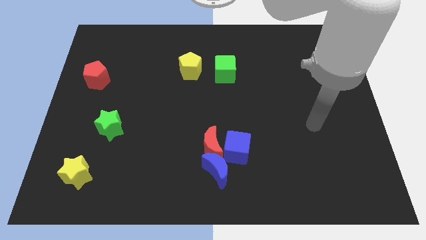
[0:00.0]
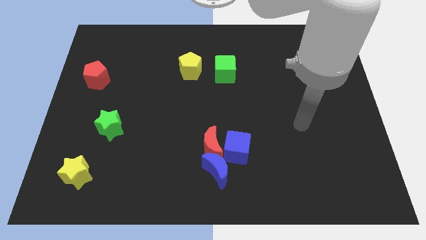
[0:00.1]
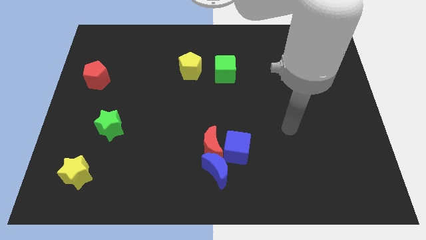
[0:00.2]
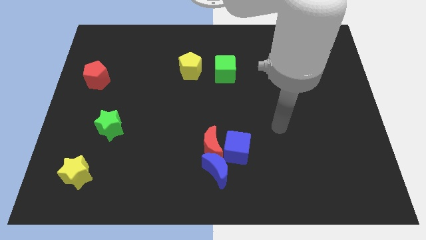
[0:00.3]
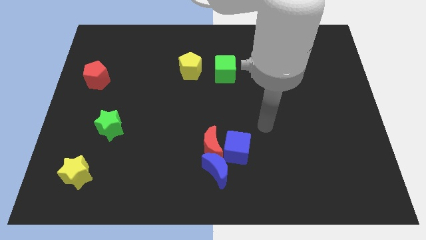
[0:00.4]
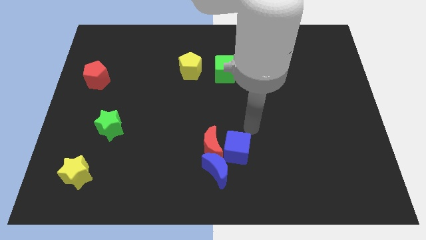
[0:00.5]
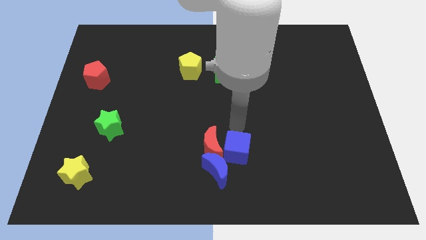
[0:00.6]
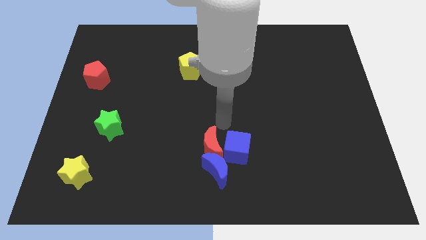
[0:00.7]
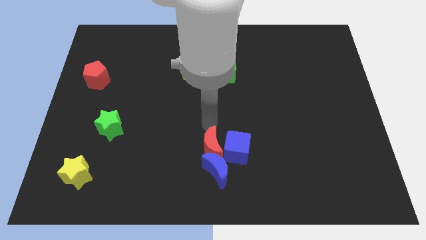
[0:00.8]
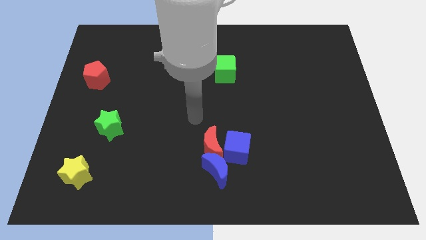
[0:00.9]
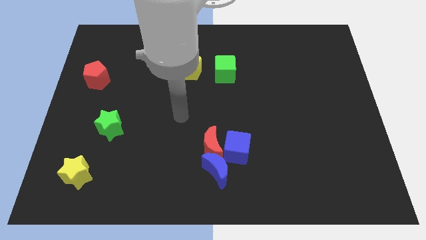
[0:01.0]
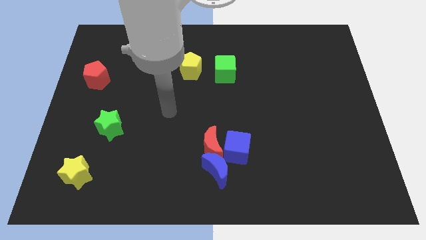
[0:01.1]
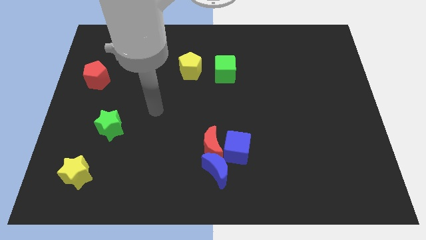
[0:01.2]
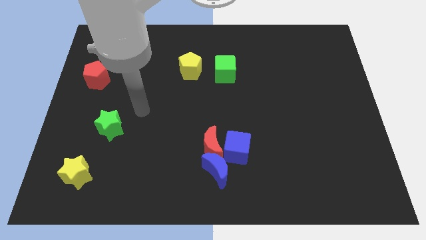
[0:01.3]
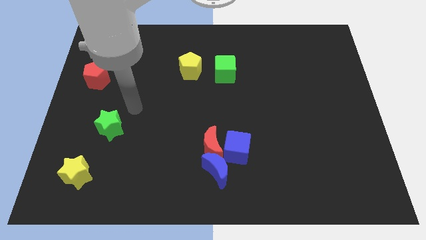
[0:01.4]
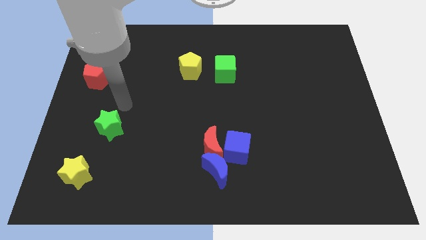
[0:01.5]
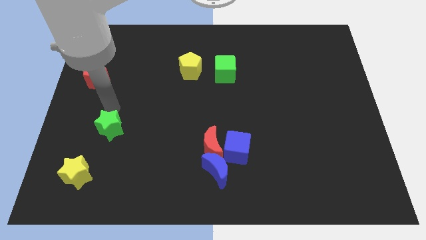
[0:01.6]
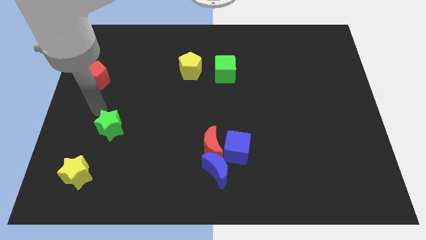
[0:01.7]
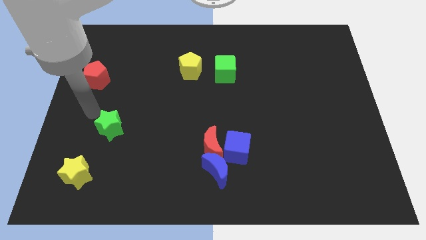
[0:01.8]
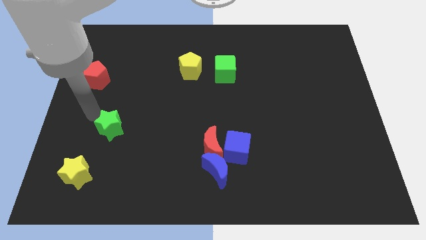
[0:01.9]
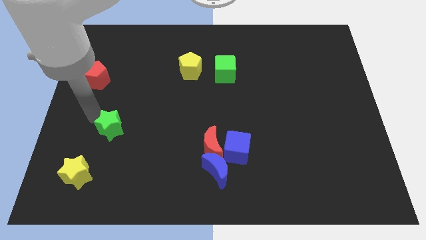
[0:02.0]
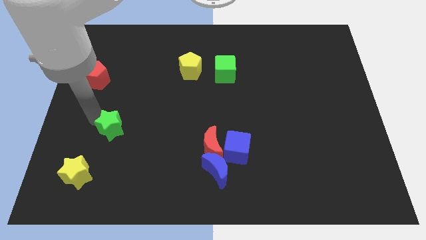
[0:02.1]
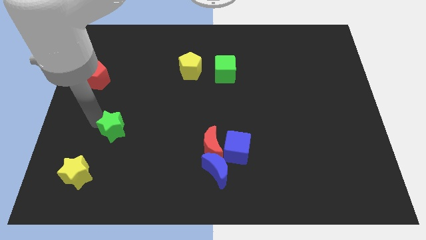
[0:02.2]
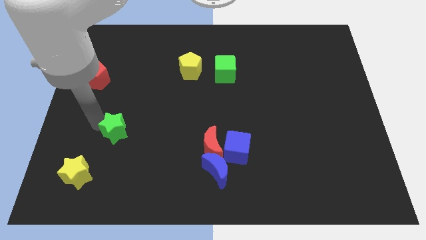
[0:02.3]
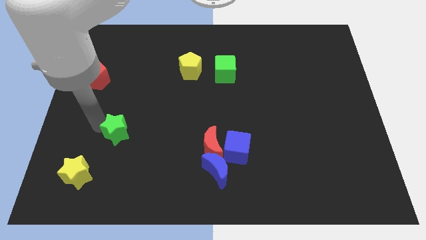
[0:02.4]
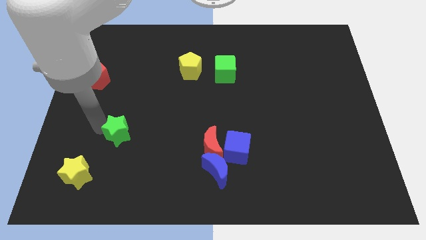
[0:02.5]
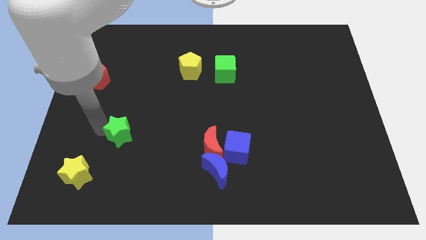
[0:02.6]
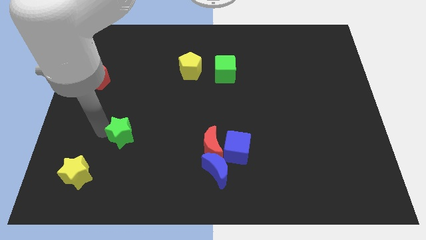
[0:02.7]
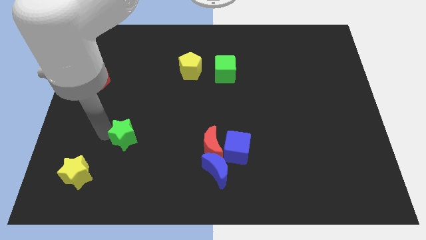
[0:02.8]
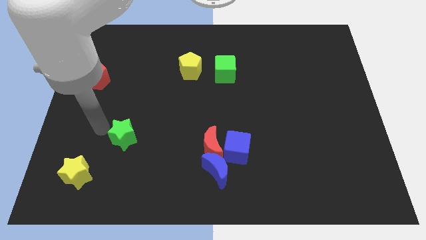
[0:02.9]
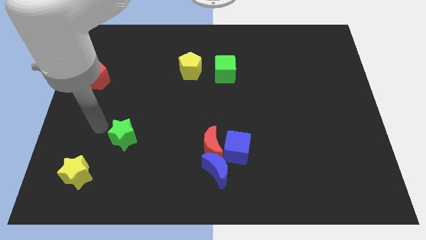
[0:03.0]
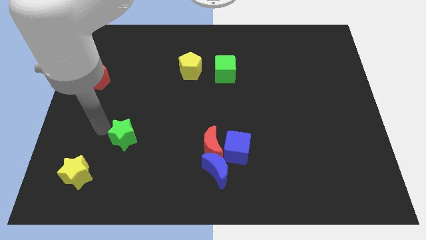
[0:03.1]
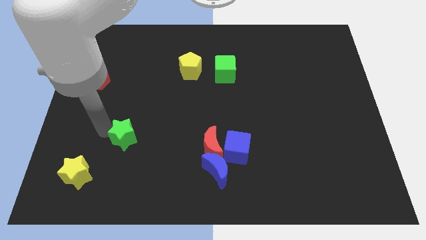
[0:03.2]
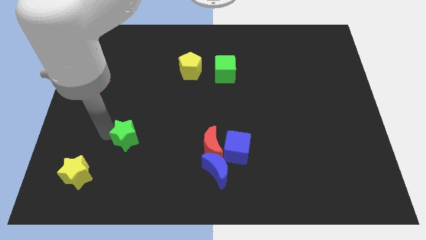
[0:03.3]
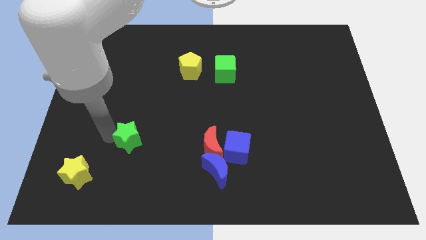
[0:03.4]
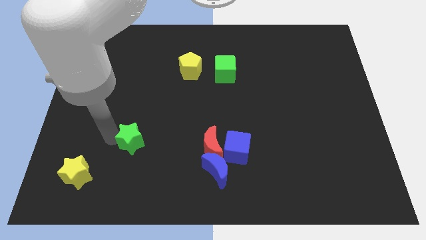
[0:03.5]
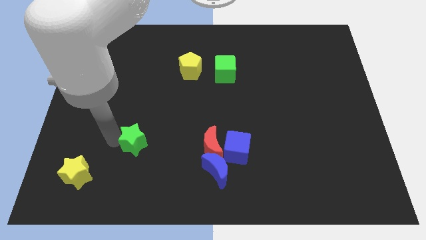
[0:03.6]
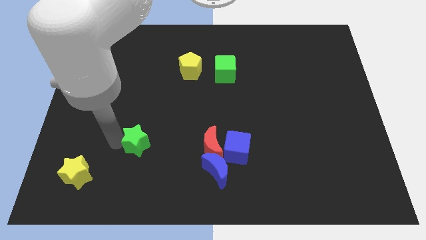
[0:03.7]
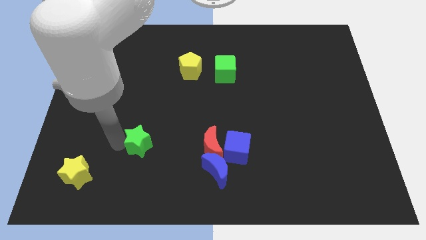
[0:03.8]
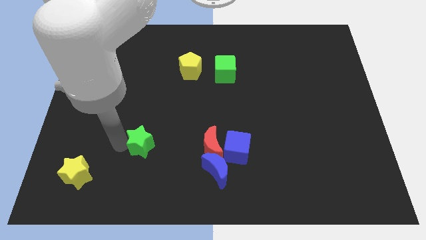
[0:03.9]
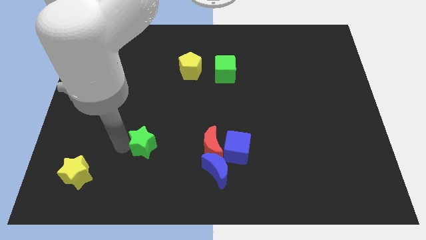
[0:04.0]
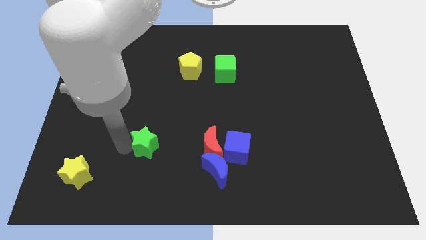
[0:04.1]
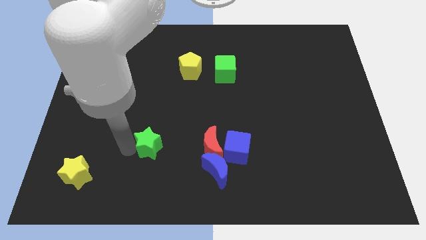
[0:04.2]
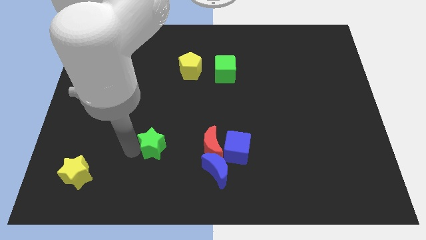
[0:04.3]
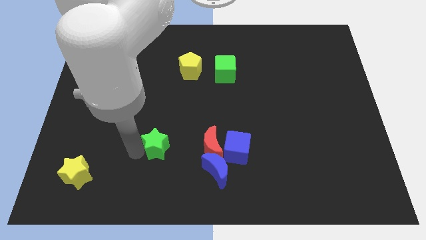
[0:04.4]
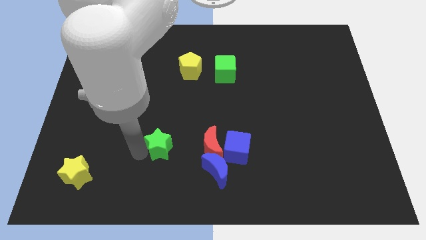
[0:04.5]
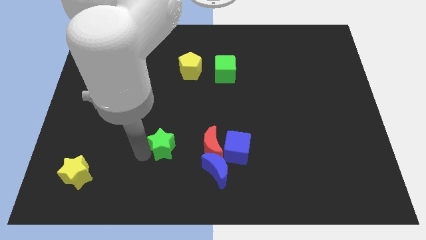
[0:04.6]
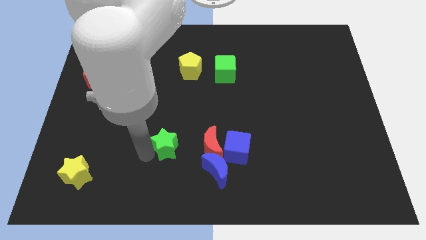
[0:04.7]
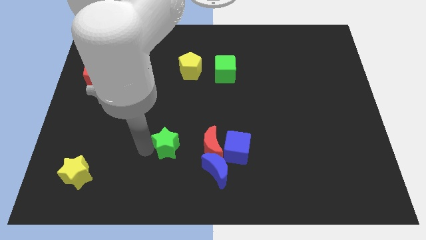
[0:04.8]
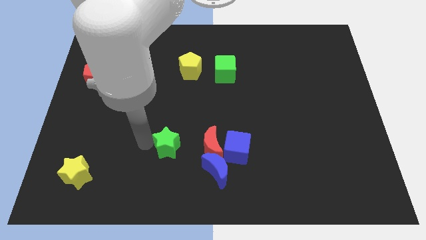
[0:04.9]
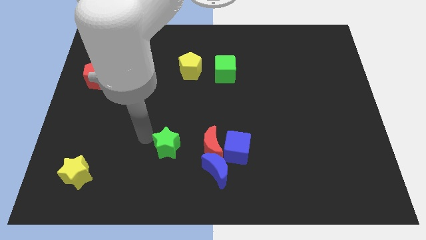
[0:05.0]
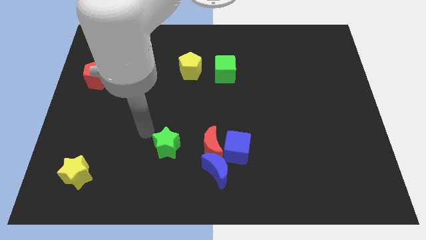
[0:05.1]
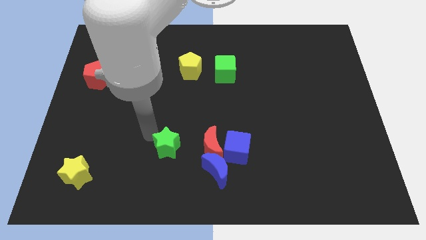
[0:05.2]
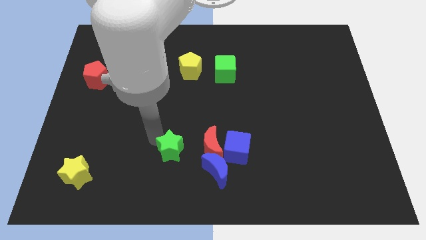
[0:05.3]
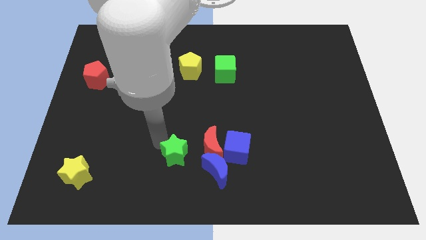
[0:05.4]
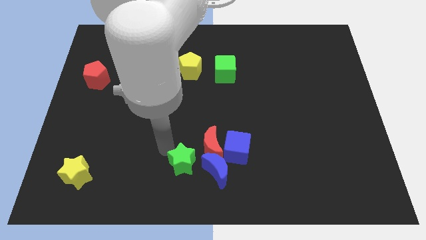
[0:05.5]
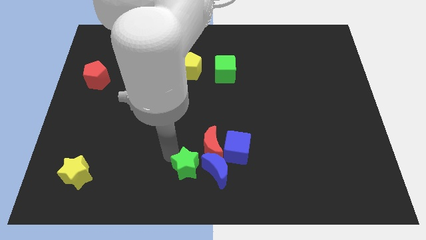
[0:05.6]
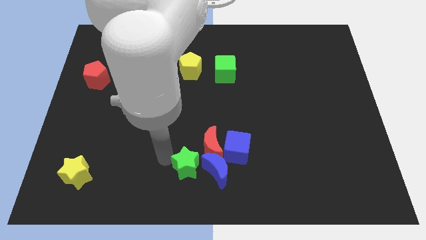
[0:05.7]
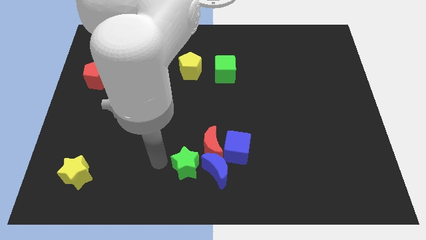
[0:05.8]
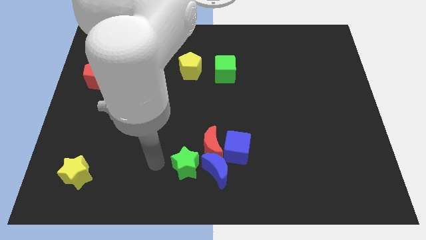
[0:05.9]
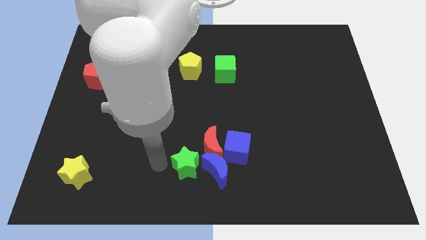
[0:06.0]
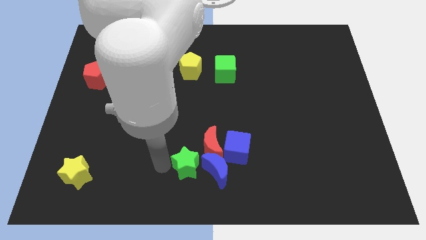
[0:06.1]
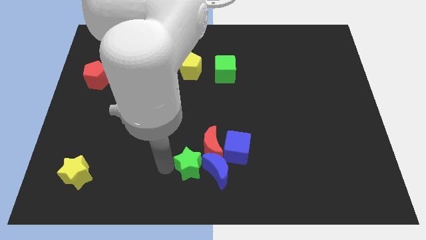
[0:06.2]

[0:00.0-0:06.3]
put the green star towards the blue moon

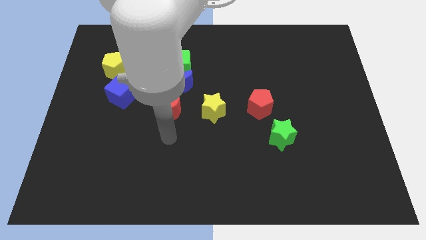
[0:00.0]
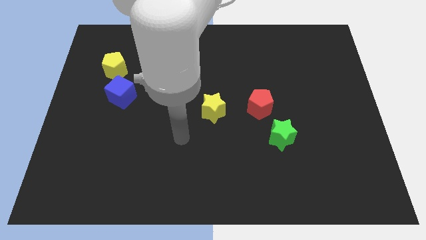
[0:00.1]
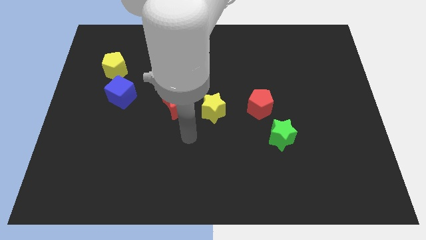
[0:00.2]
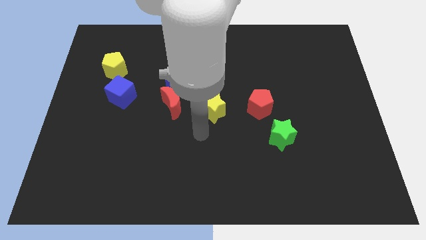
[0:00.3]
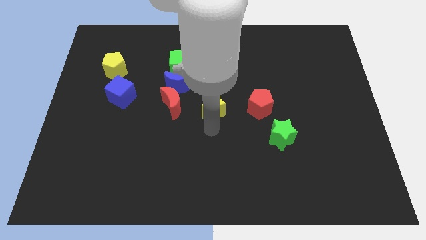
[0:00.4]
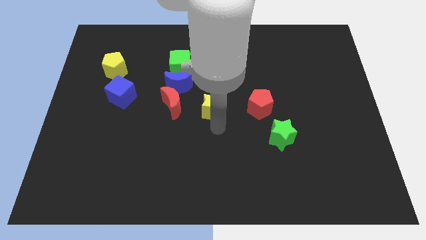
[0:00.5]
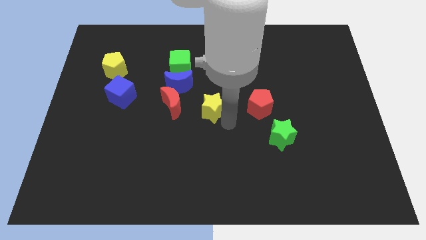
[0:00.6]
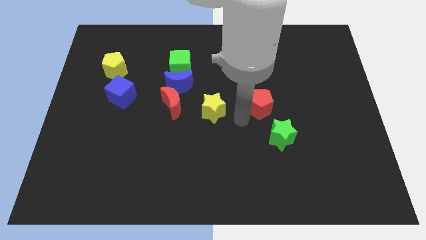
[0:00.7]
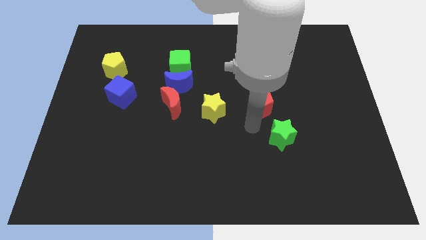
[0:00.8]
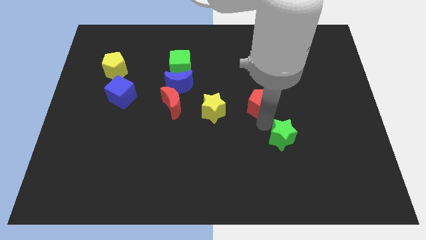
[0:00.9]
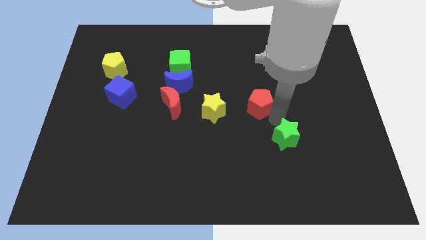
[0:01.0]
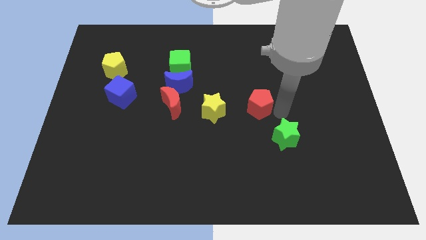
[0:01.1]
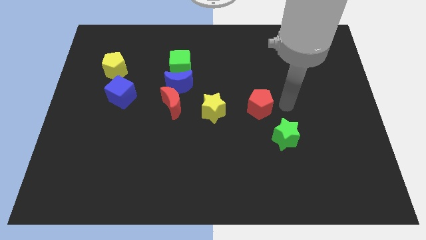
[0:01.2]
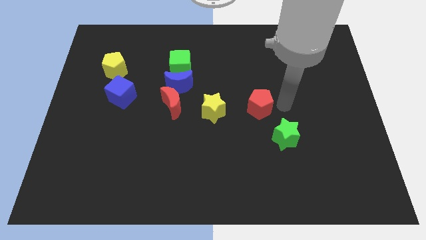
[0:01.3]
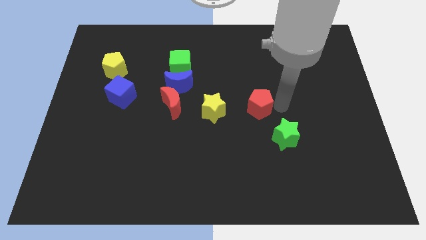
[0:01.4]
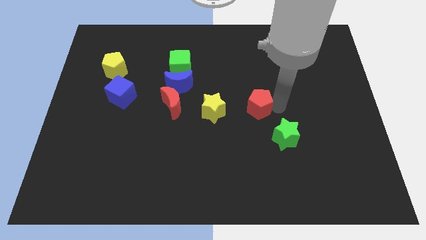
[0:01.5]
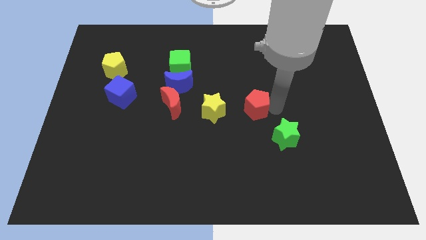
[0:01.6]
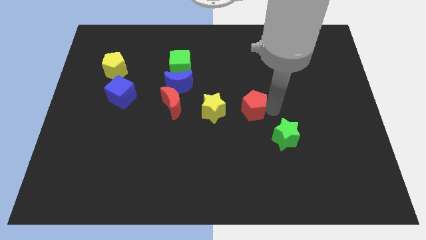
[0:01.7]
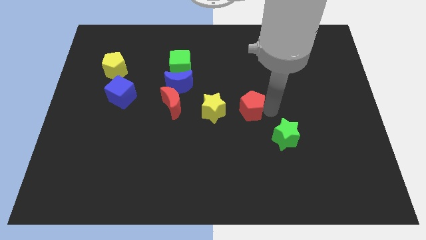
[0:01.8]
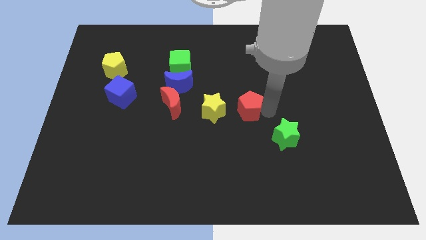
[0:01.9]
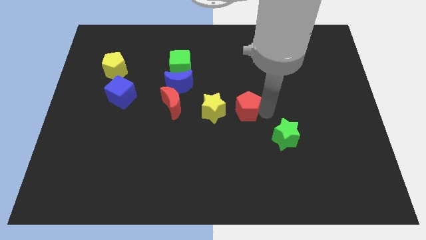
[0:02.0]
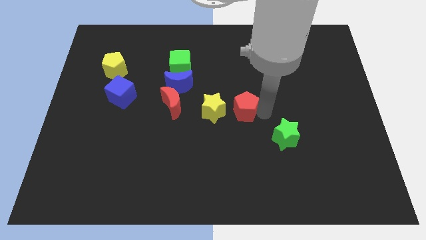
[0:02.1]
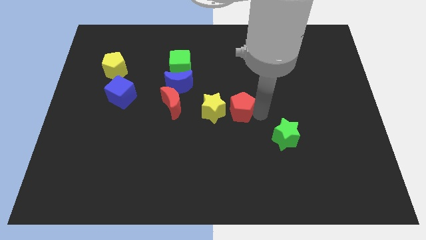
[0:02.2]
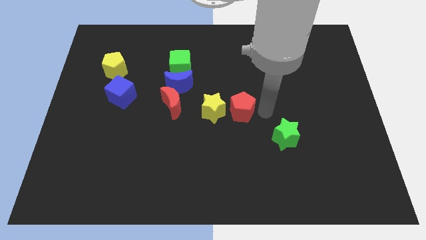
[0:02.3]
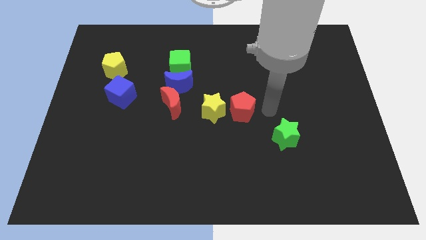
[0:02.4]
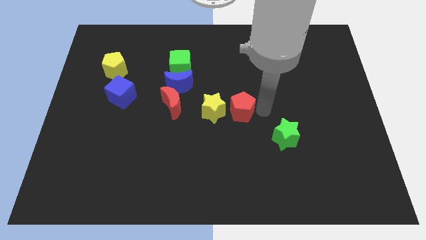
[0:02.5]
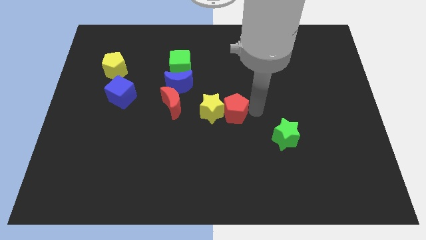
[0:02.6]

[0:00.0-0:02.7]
move the red pentagon next to the yellow star
